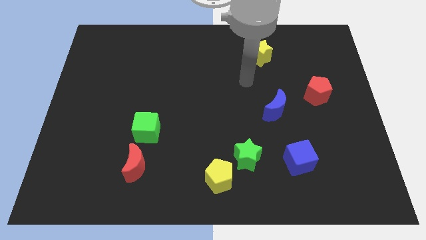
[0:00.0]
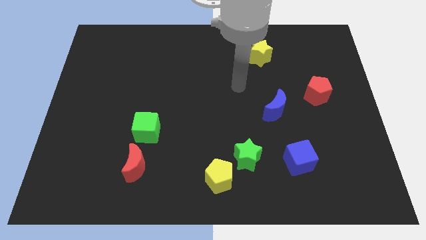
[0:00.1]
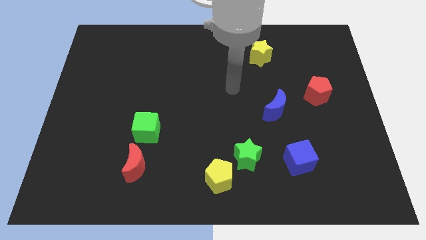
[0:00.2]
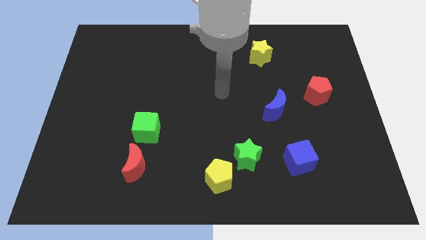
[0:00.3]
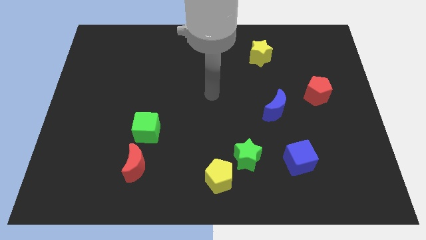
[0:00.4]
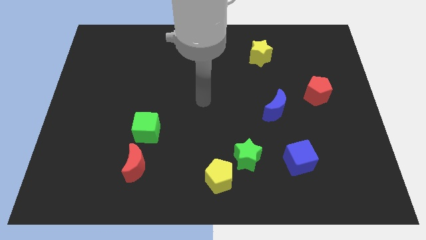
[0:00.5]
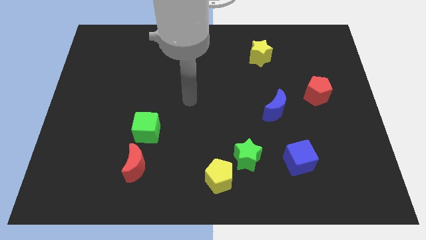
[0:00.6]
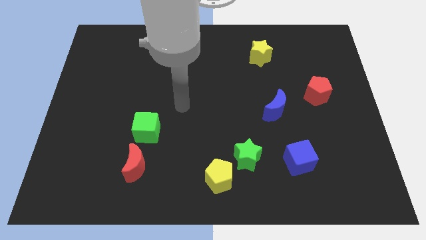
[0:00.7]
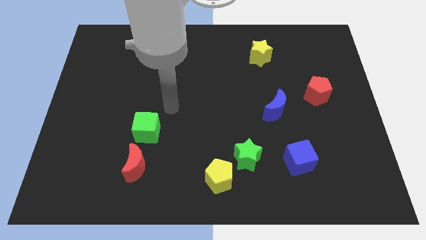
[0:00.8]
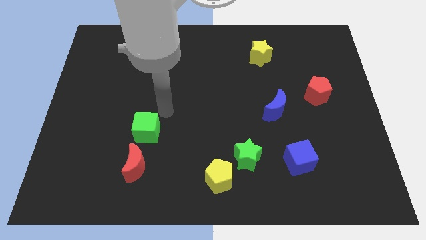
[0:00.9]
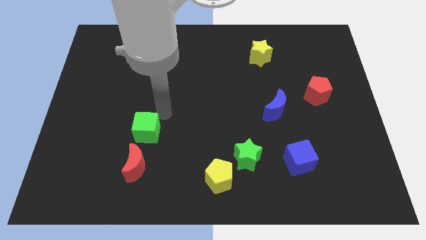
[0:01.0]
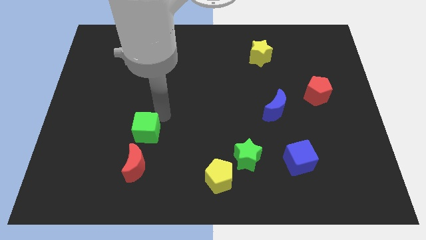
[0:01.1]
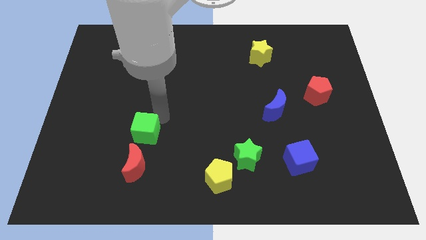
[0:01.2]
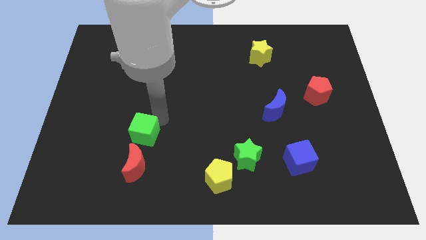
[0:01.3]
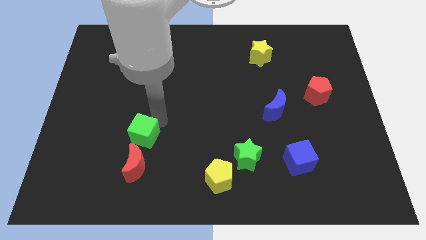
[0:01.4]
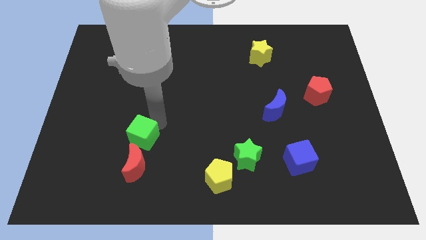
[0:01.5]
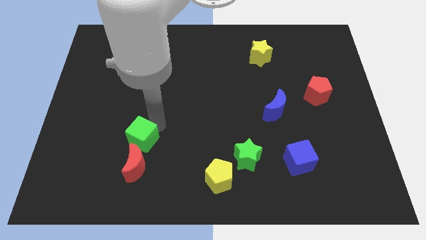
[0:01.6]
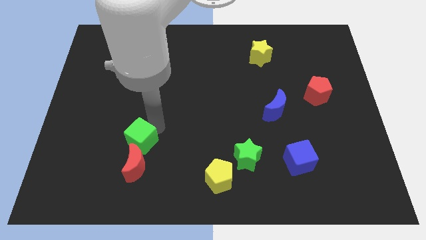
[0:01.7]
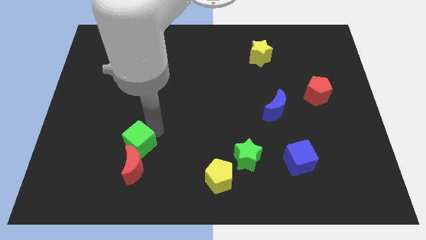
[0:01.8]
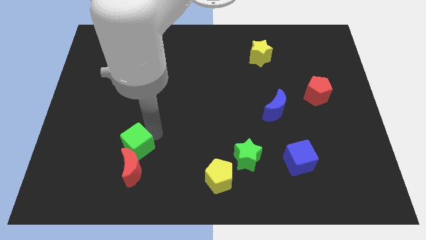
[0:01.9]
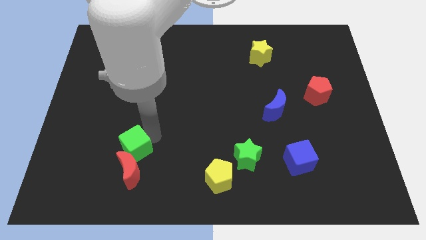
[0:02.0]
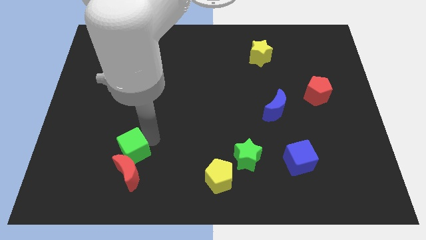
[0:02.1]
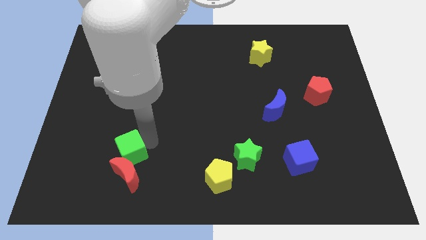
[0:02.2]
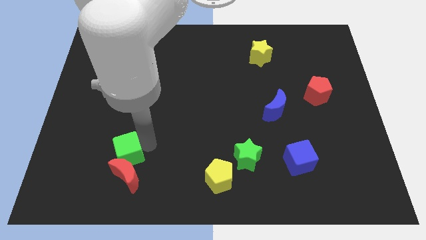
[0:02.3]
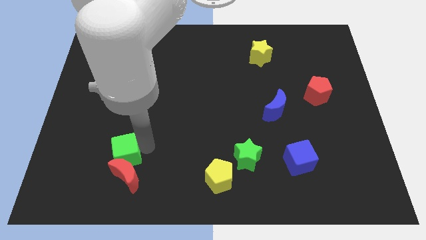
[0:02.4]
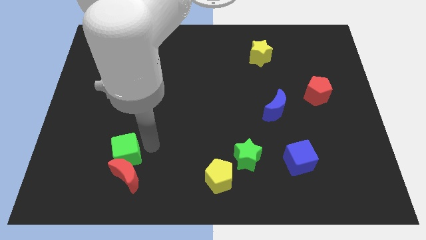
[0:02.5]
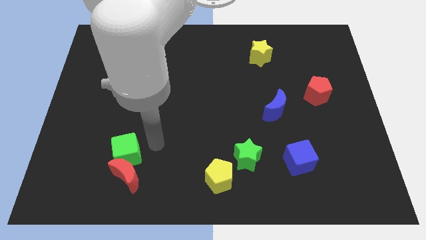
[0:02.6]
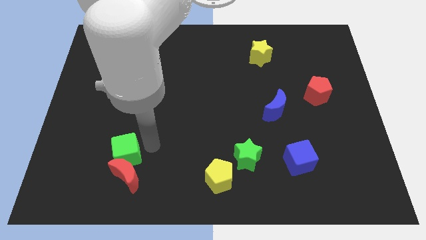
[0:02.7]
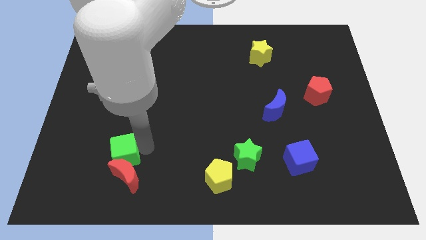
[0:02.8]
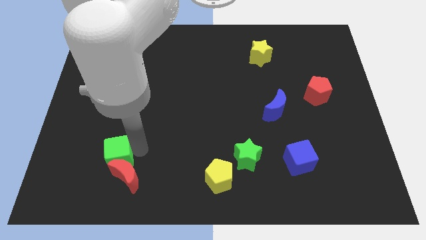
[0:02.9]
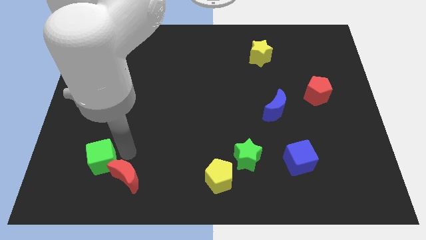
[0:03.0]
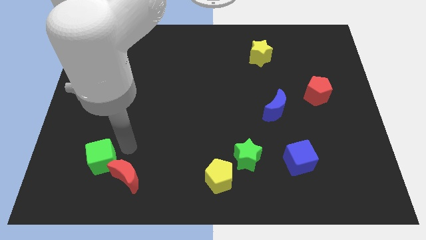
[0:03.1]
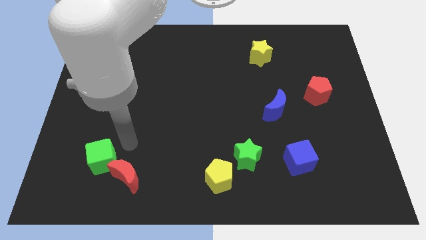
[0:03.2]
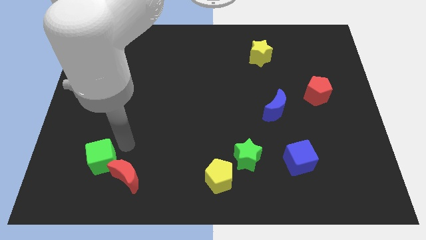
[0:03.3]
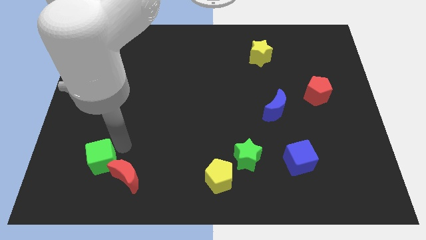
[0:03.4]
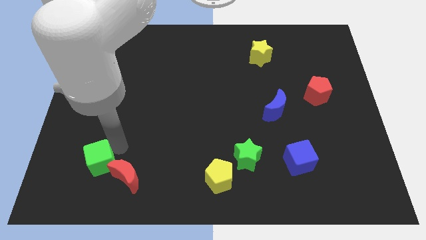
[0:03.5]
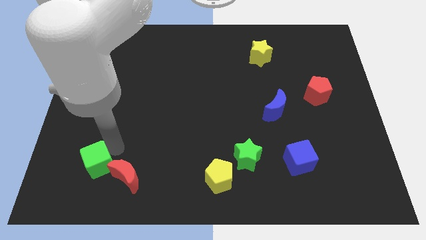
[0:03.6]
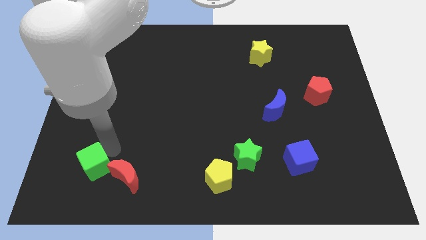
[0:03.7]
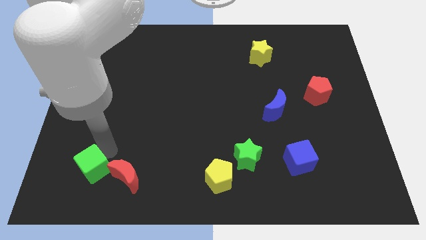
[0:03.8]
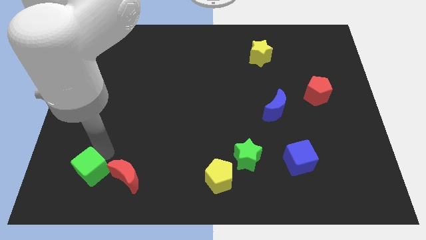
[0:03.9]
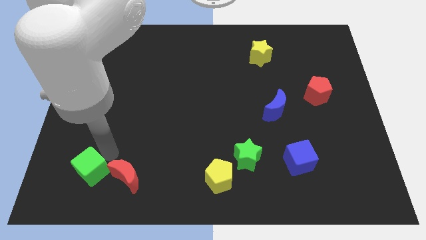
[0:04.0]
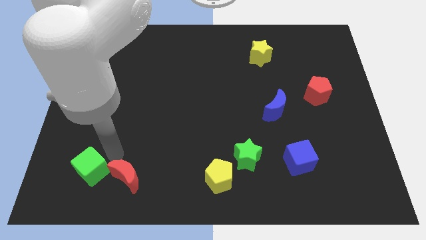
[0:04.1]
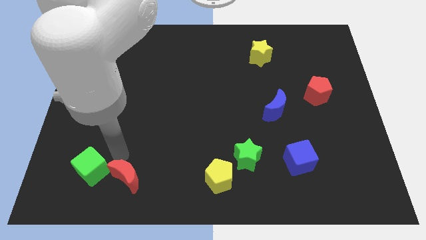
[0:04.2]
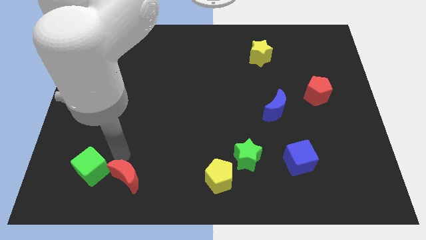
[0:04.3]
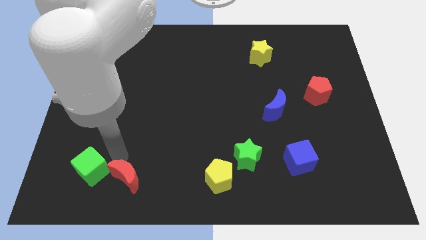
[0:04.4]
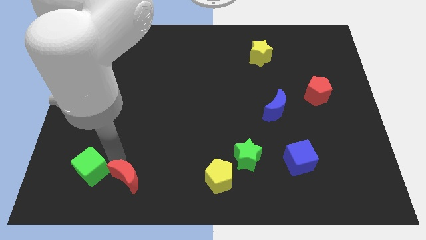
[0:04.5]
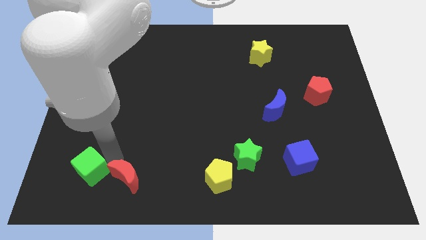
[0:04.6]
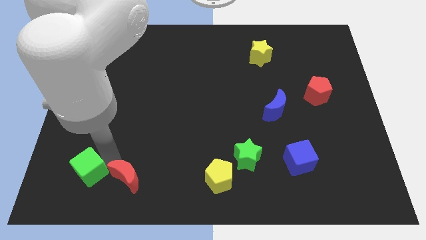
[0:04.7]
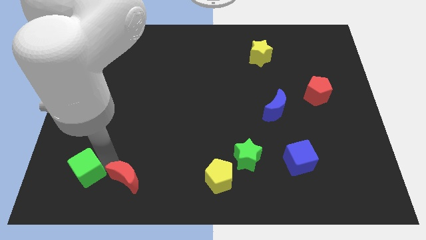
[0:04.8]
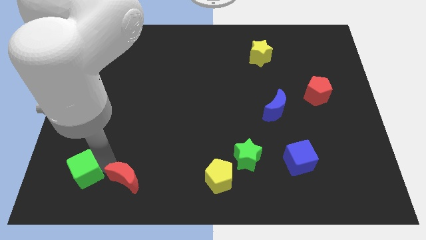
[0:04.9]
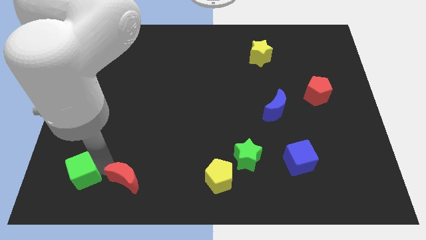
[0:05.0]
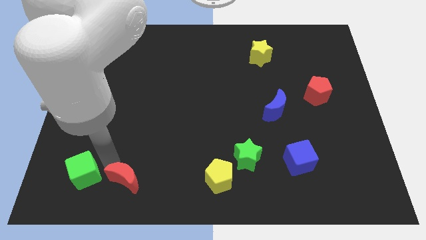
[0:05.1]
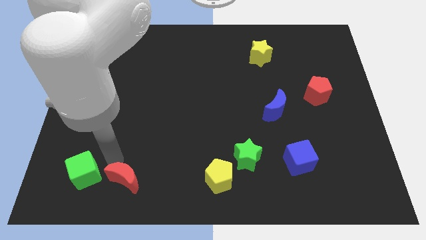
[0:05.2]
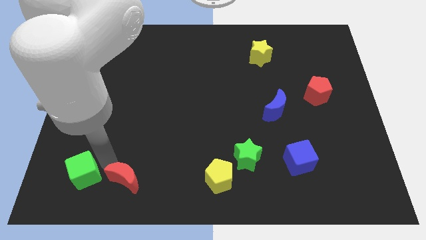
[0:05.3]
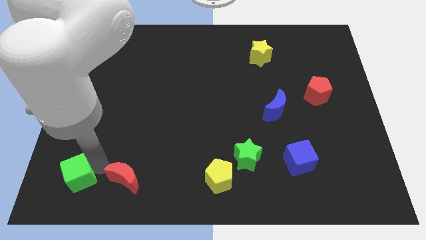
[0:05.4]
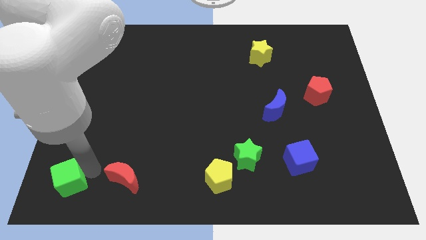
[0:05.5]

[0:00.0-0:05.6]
slide the green cube to the bottom left corner

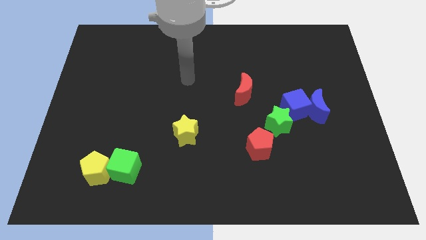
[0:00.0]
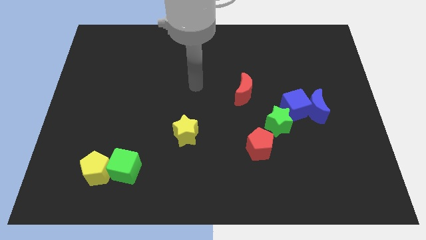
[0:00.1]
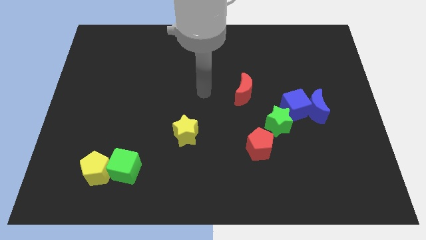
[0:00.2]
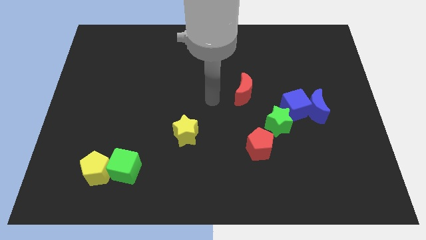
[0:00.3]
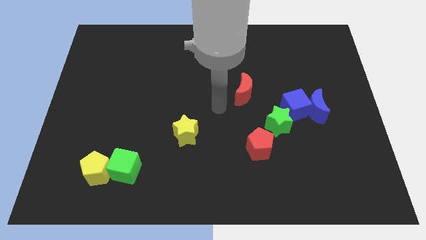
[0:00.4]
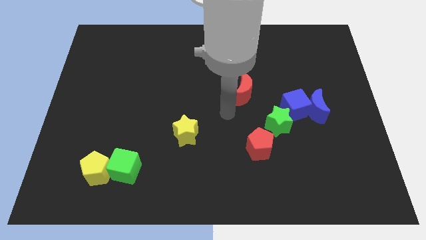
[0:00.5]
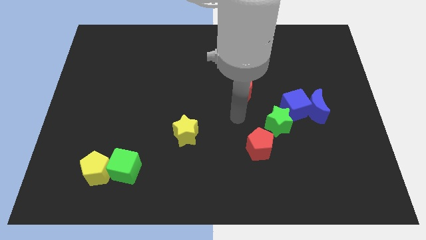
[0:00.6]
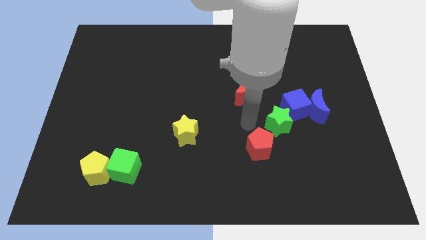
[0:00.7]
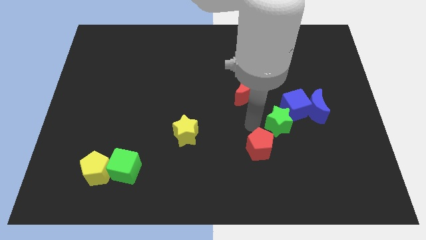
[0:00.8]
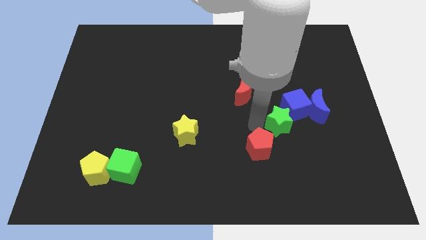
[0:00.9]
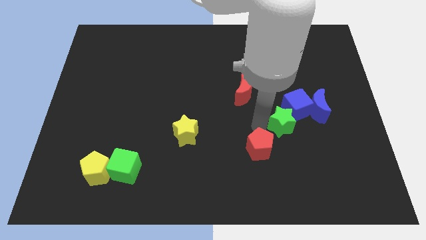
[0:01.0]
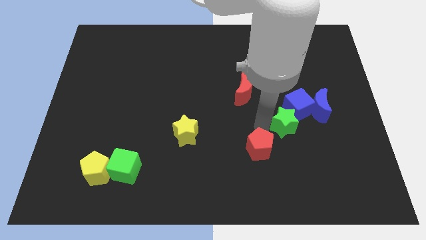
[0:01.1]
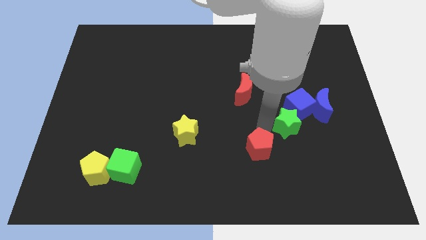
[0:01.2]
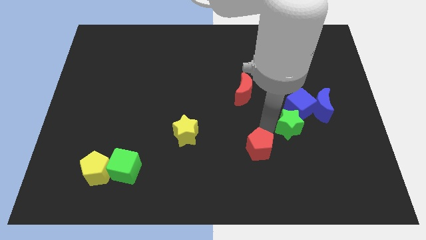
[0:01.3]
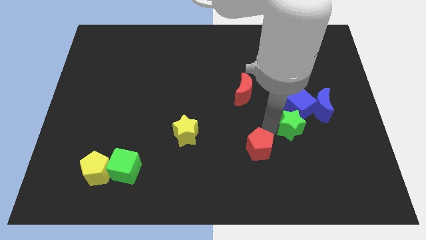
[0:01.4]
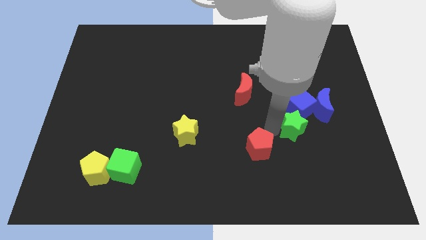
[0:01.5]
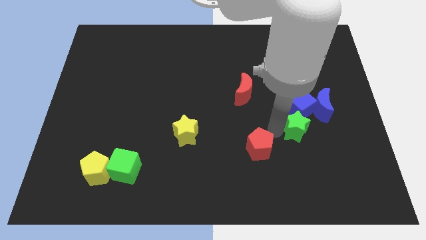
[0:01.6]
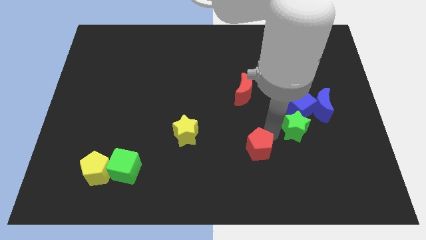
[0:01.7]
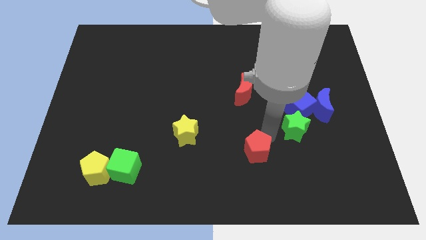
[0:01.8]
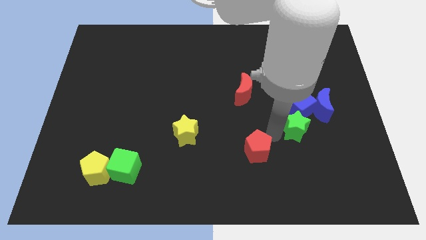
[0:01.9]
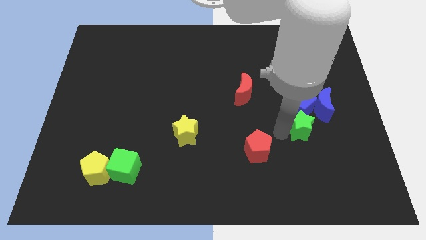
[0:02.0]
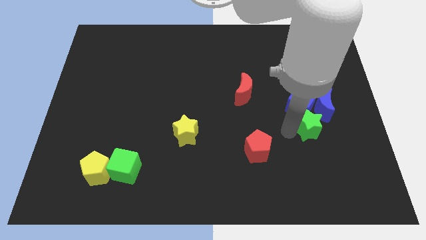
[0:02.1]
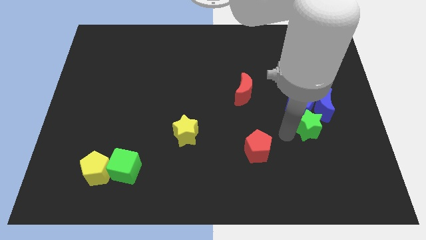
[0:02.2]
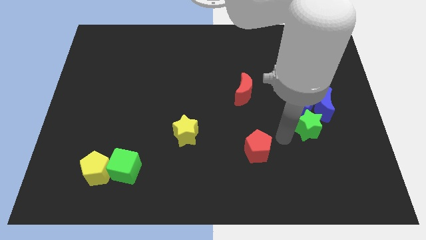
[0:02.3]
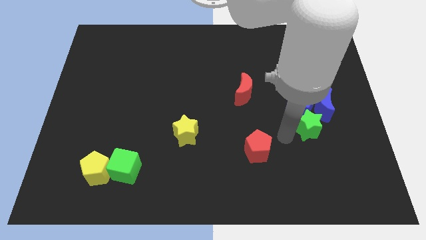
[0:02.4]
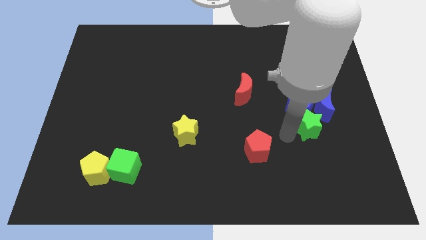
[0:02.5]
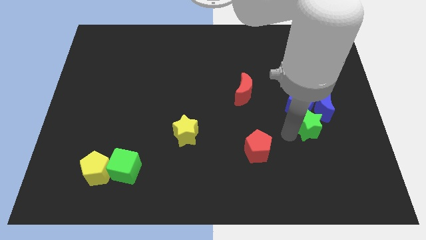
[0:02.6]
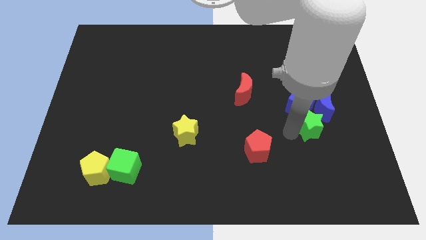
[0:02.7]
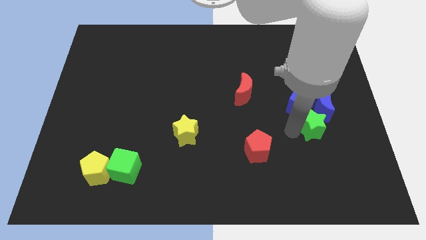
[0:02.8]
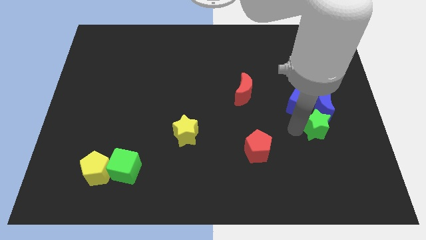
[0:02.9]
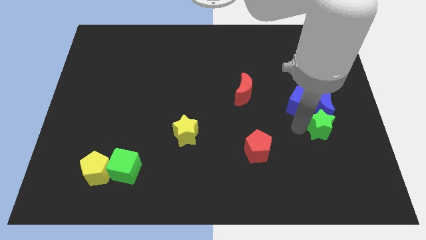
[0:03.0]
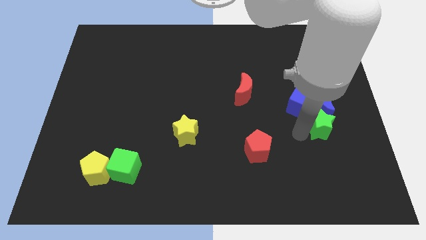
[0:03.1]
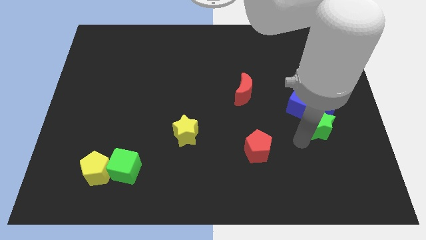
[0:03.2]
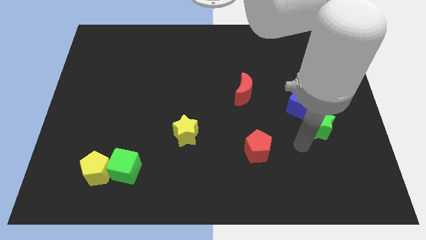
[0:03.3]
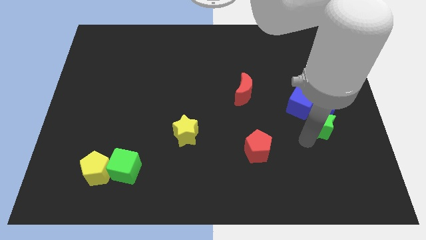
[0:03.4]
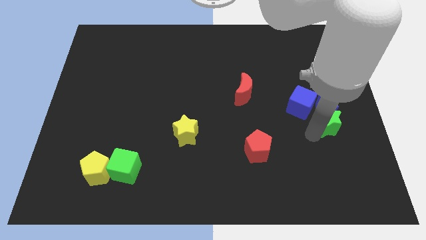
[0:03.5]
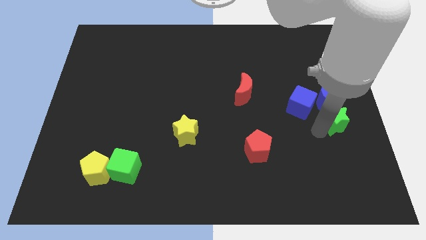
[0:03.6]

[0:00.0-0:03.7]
move the green star to the right side
